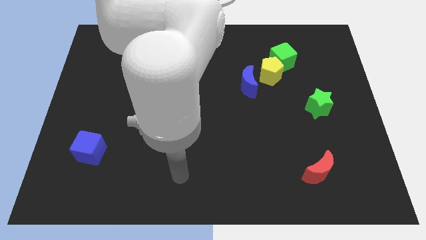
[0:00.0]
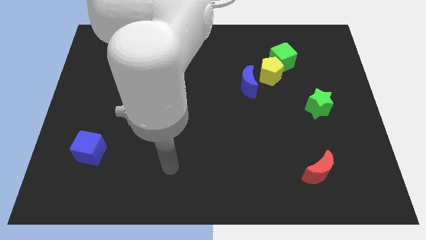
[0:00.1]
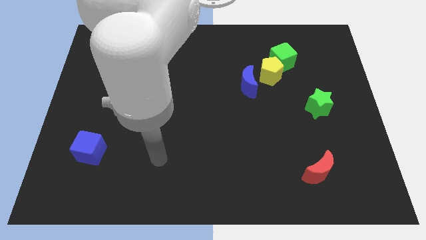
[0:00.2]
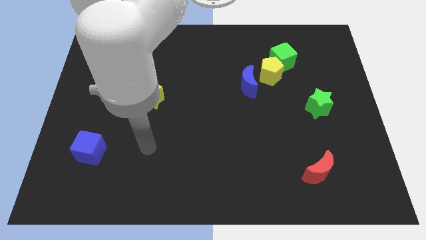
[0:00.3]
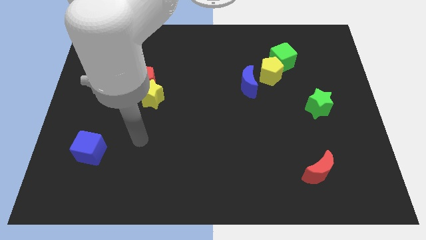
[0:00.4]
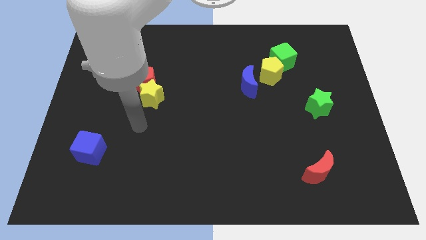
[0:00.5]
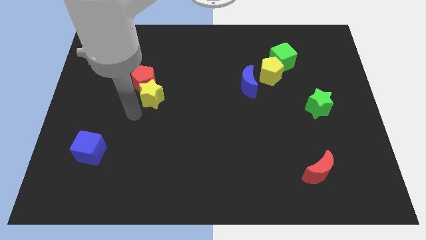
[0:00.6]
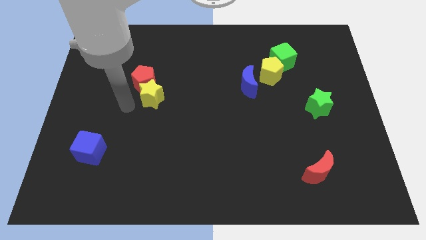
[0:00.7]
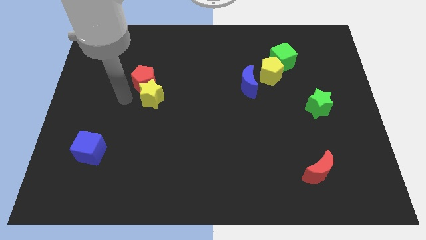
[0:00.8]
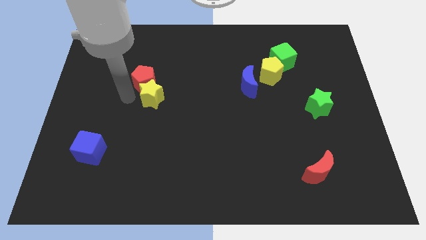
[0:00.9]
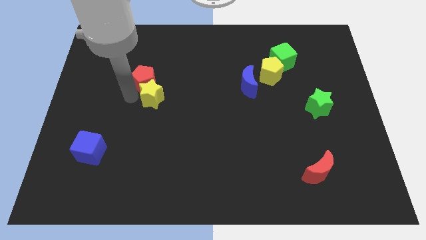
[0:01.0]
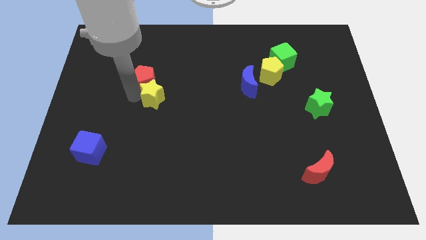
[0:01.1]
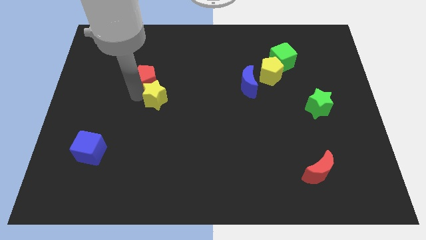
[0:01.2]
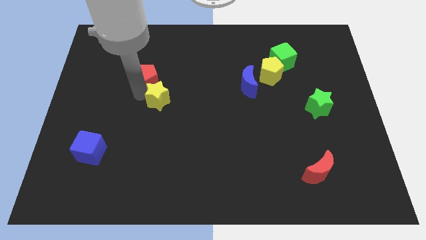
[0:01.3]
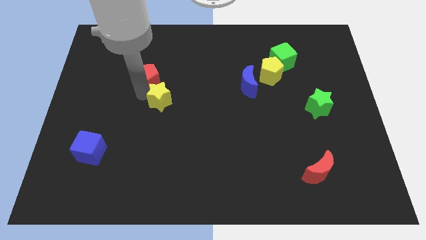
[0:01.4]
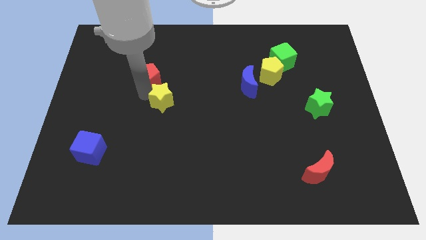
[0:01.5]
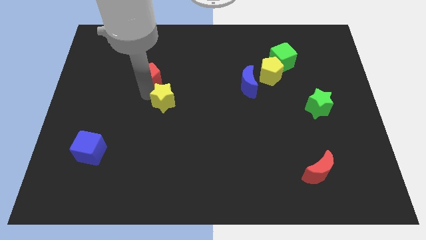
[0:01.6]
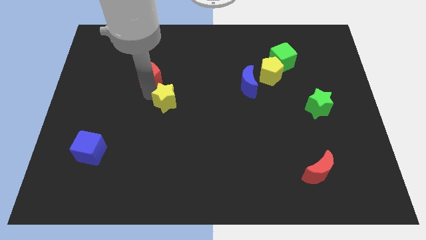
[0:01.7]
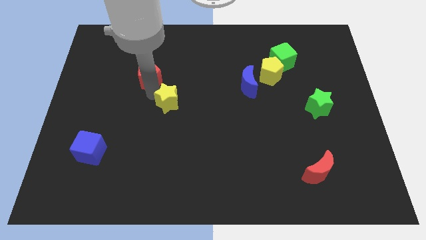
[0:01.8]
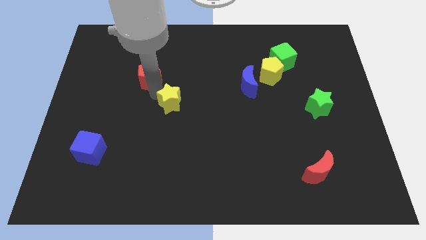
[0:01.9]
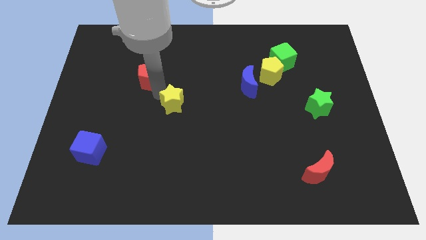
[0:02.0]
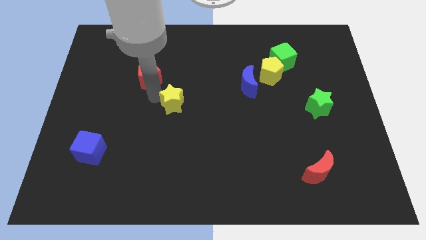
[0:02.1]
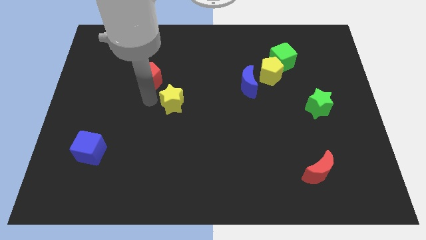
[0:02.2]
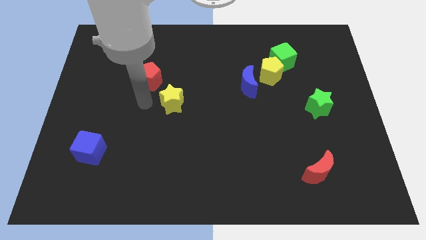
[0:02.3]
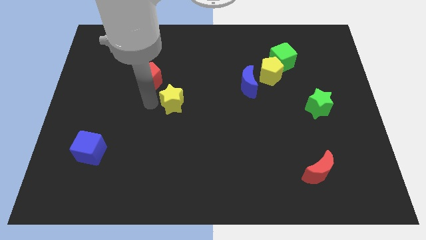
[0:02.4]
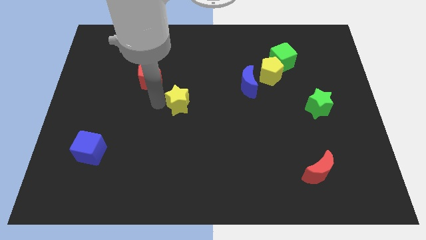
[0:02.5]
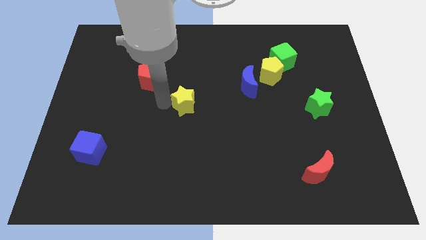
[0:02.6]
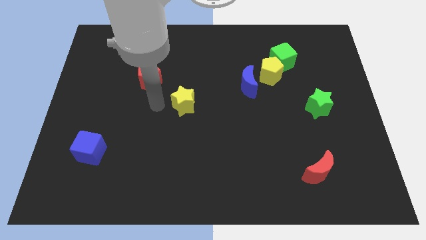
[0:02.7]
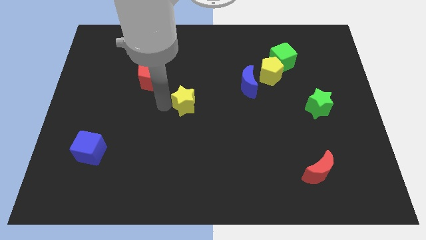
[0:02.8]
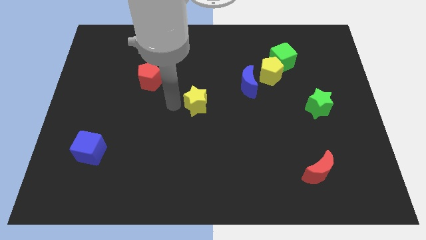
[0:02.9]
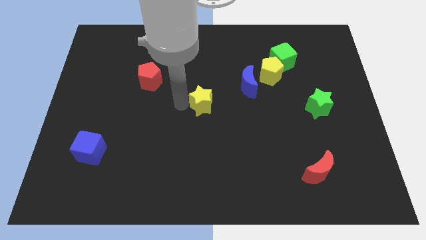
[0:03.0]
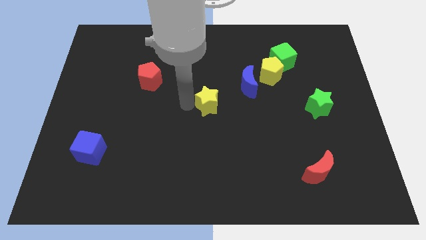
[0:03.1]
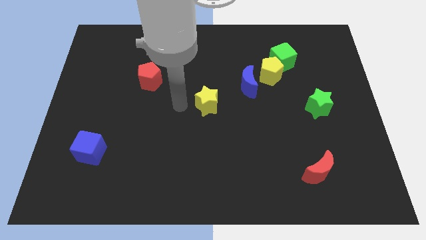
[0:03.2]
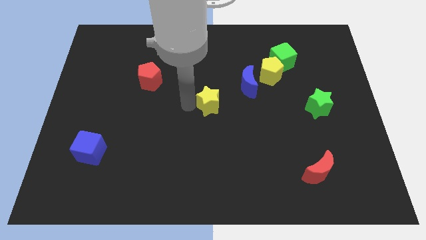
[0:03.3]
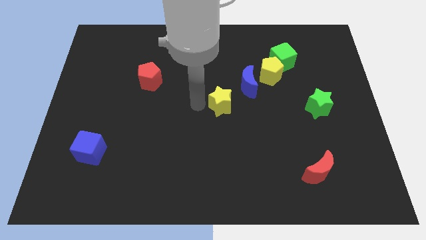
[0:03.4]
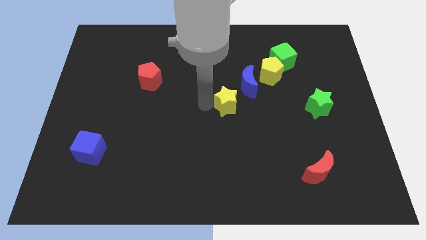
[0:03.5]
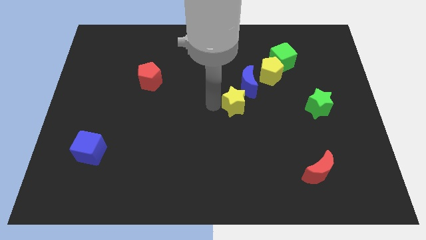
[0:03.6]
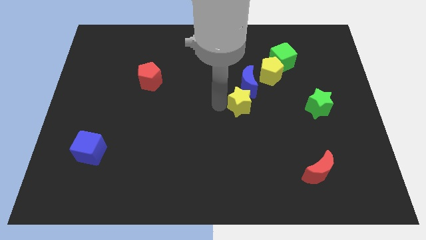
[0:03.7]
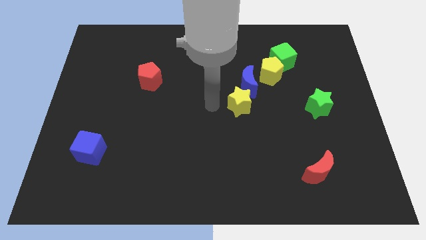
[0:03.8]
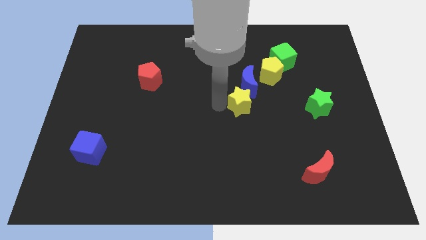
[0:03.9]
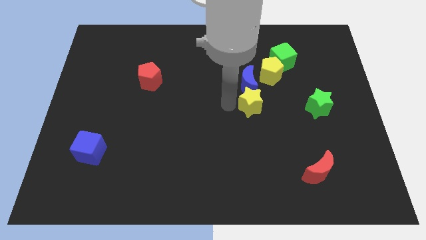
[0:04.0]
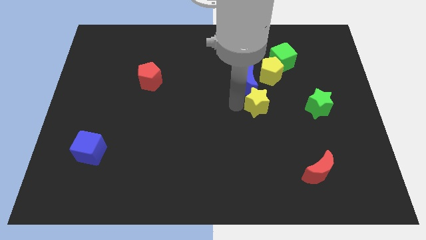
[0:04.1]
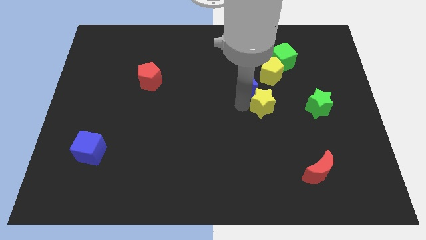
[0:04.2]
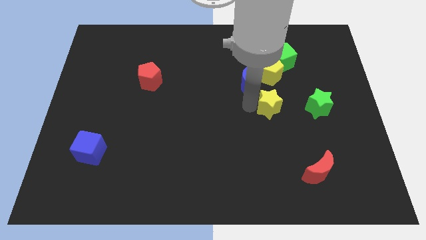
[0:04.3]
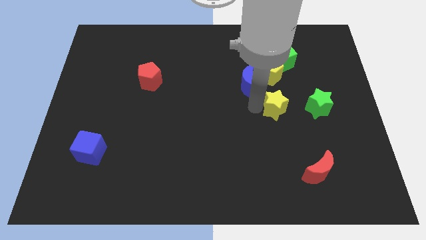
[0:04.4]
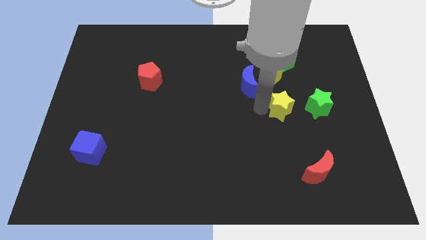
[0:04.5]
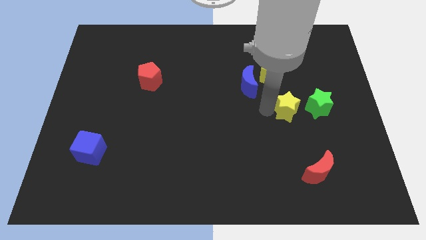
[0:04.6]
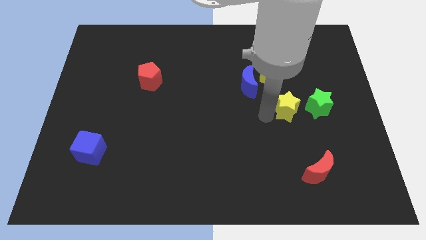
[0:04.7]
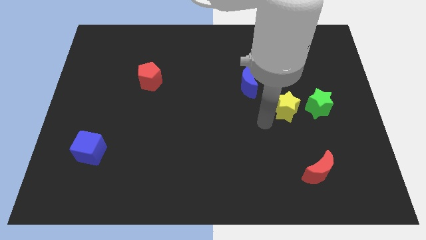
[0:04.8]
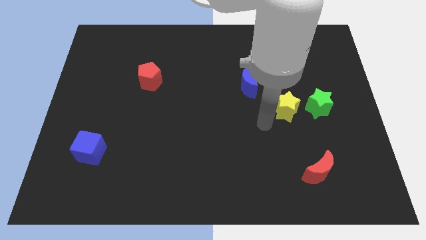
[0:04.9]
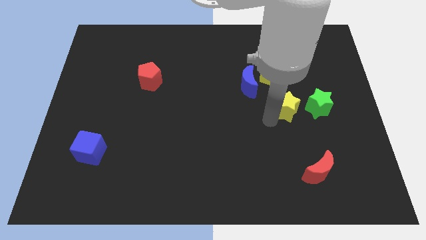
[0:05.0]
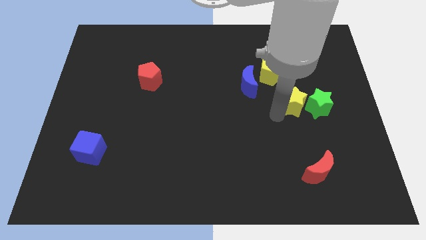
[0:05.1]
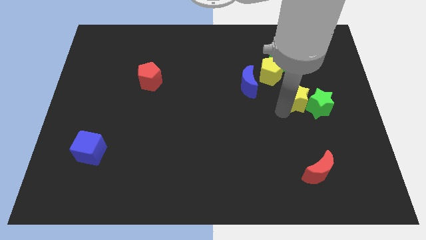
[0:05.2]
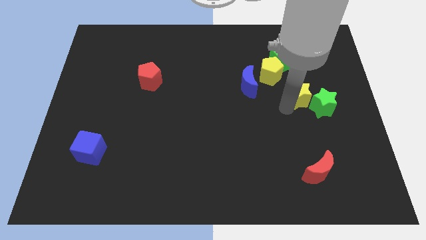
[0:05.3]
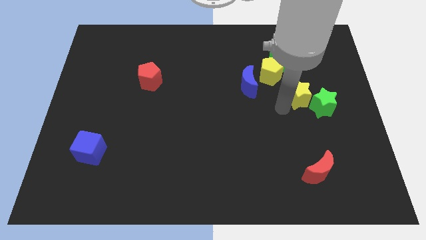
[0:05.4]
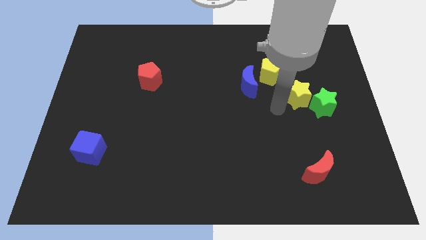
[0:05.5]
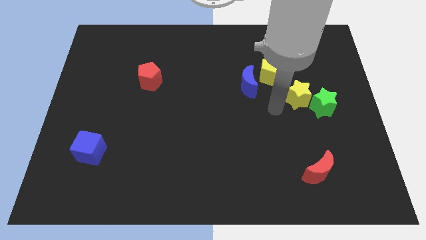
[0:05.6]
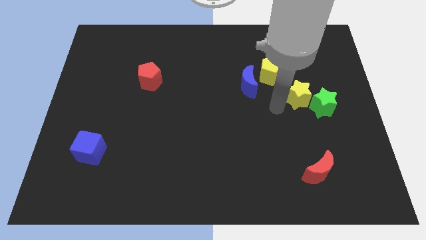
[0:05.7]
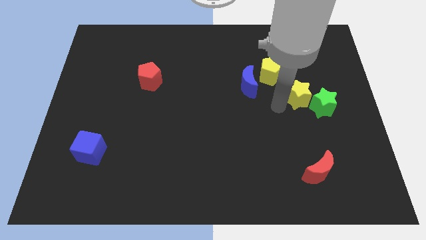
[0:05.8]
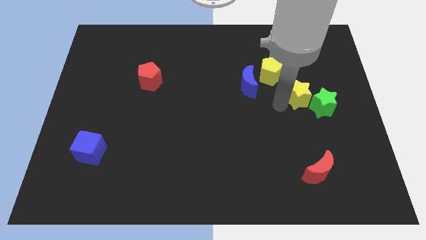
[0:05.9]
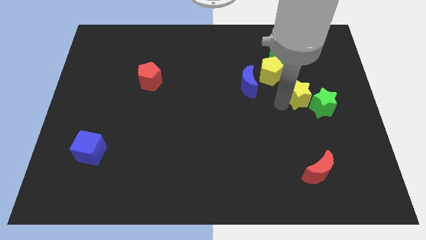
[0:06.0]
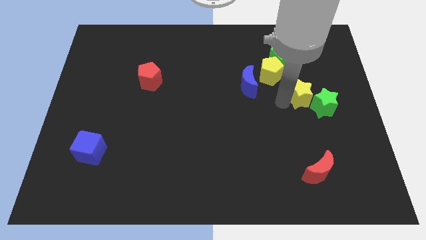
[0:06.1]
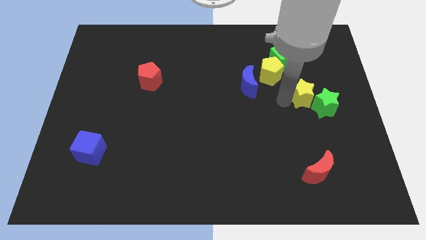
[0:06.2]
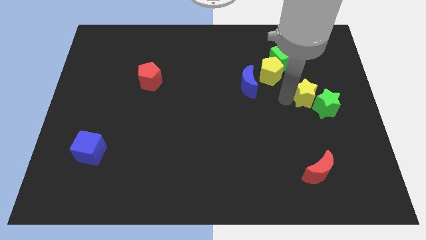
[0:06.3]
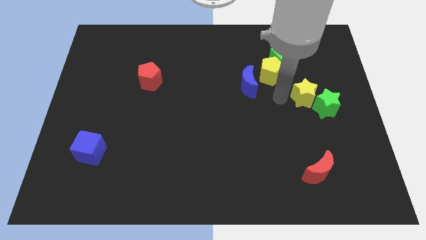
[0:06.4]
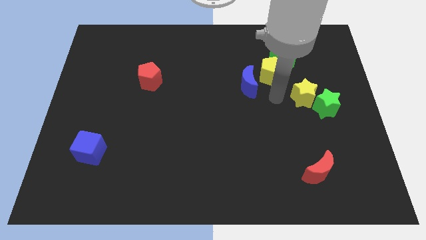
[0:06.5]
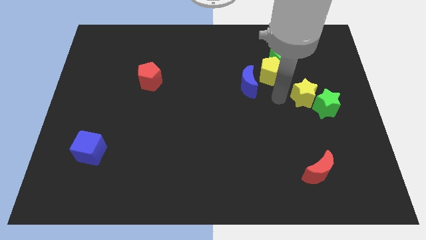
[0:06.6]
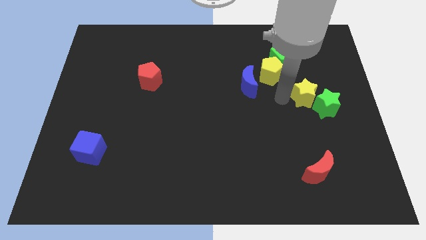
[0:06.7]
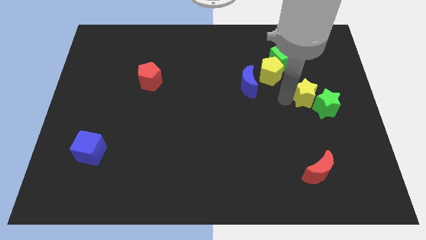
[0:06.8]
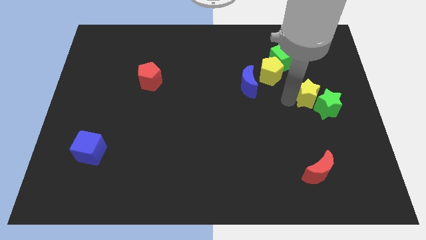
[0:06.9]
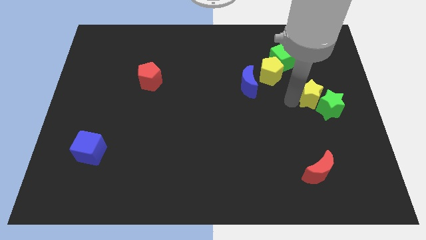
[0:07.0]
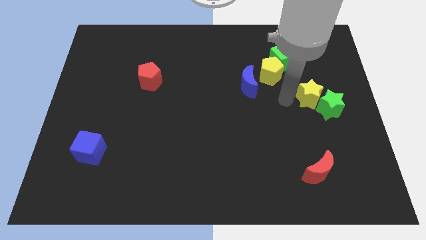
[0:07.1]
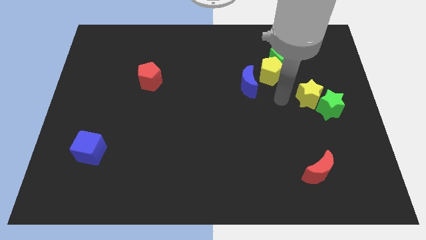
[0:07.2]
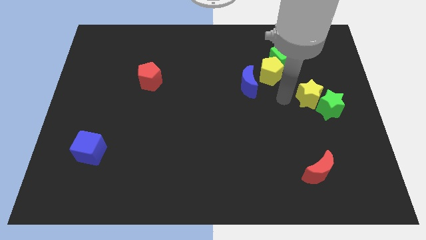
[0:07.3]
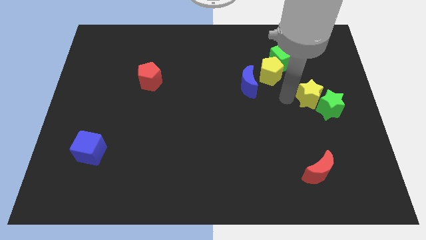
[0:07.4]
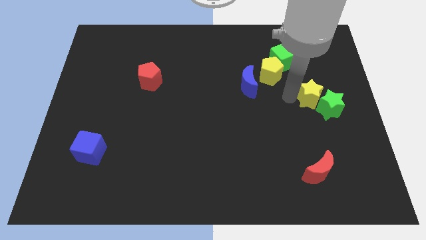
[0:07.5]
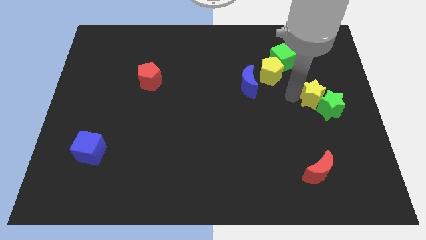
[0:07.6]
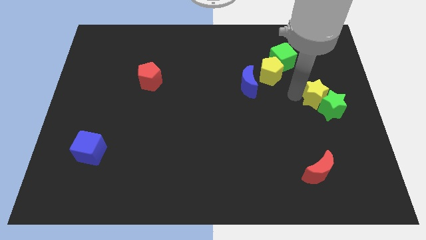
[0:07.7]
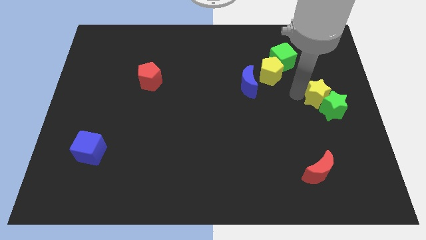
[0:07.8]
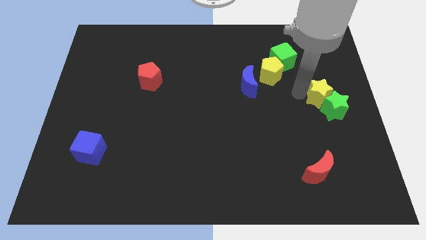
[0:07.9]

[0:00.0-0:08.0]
put the yellow star to the center right
